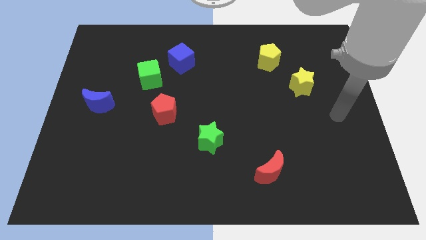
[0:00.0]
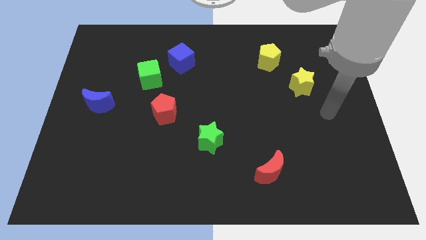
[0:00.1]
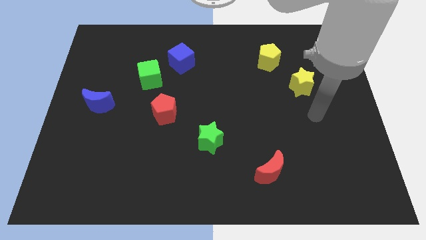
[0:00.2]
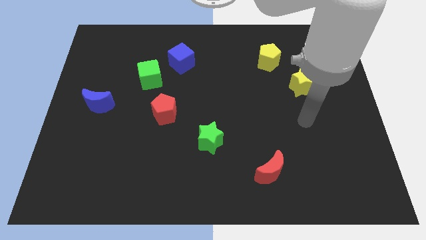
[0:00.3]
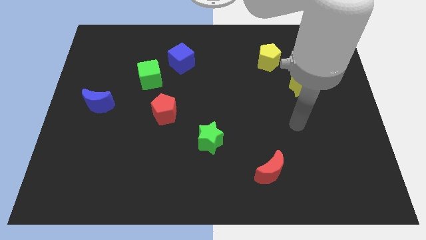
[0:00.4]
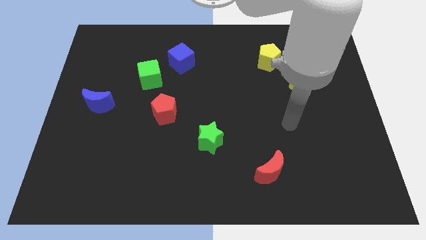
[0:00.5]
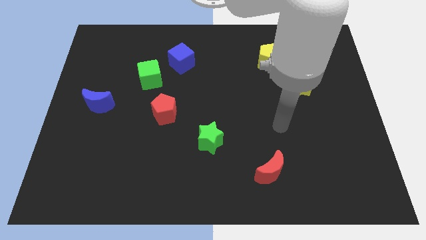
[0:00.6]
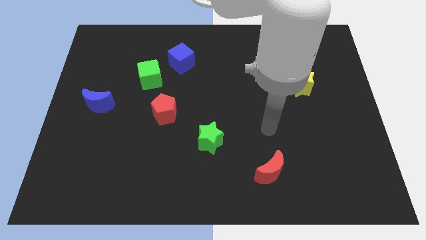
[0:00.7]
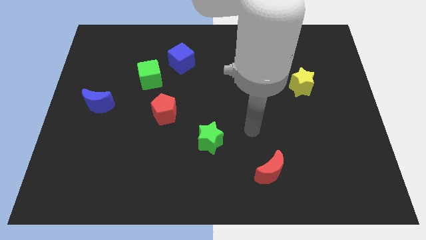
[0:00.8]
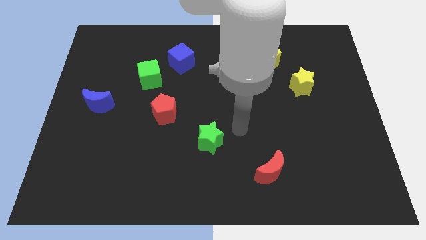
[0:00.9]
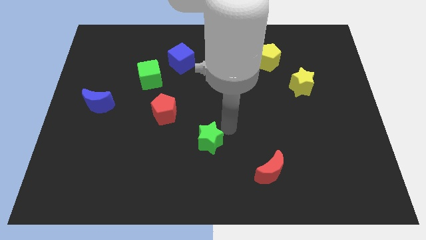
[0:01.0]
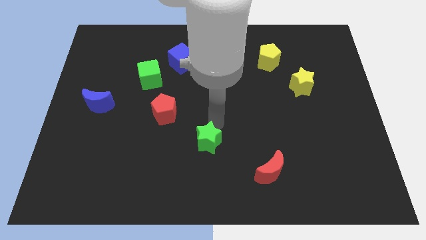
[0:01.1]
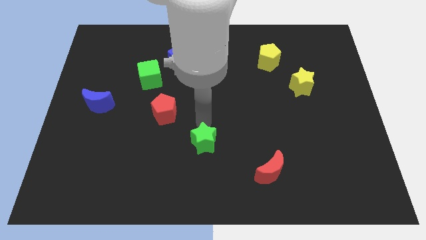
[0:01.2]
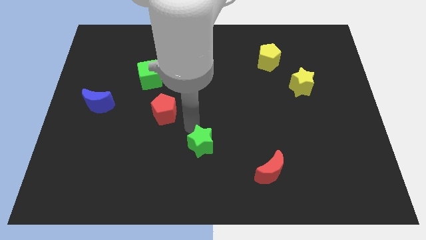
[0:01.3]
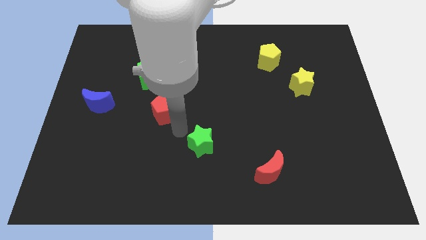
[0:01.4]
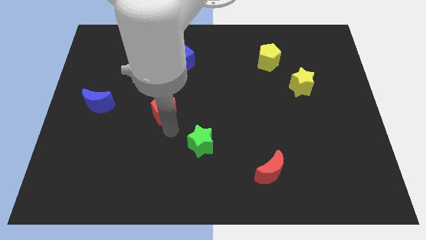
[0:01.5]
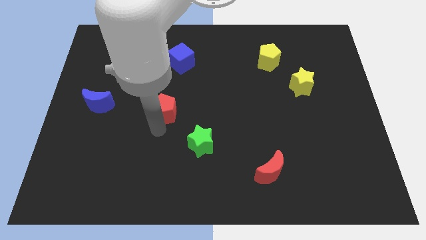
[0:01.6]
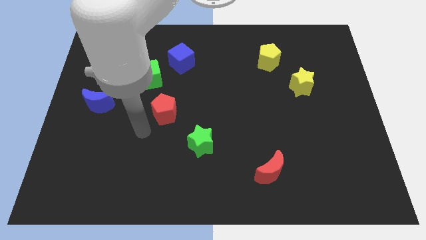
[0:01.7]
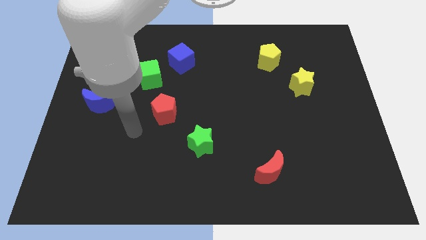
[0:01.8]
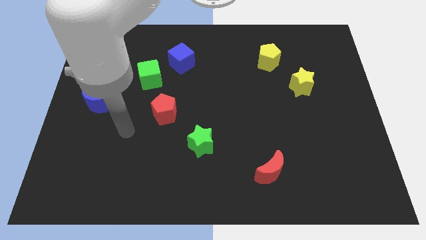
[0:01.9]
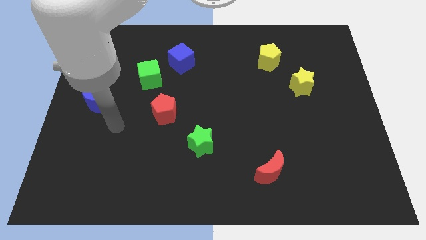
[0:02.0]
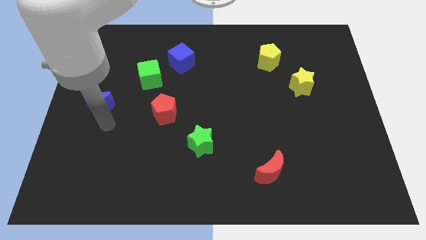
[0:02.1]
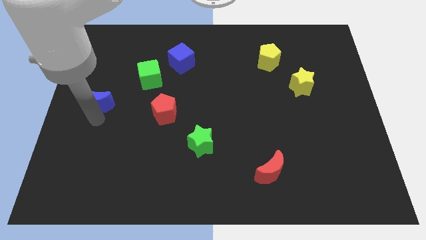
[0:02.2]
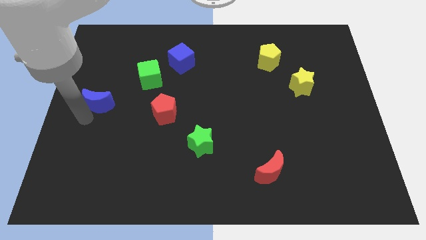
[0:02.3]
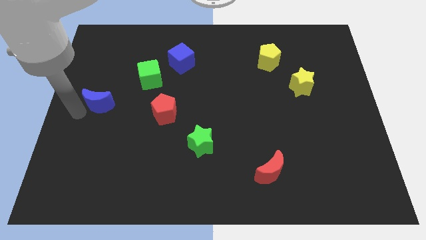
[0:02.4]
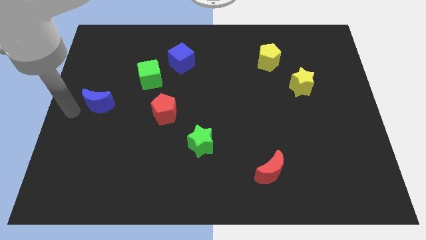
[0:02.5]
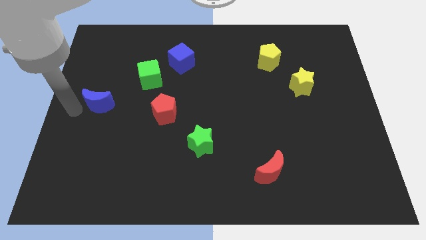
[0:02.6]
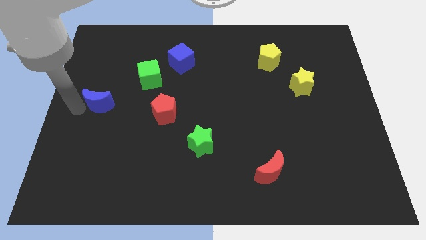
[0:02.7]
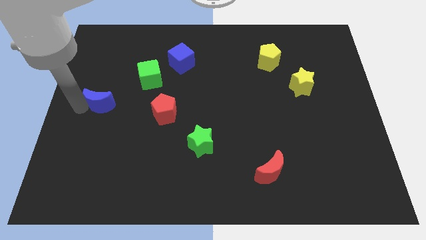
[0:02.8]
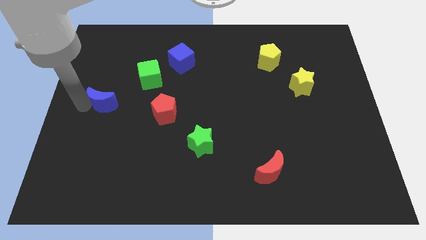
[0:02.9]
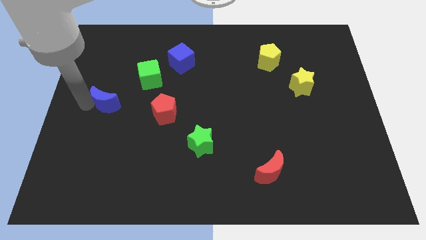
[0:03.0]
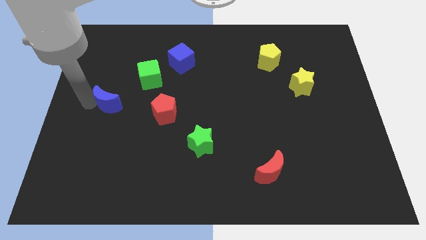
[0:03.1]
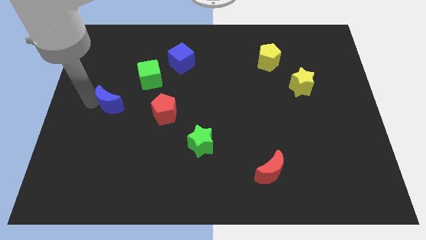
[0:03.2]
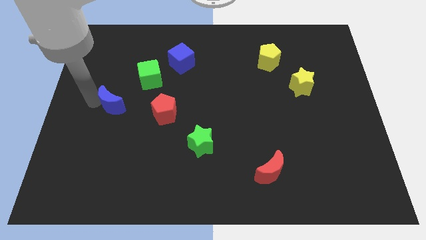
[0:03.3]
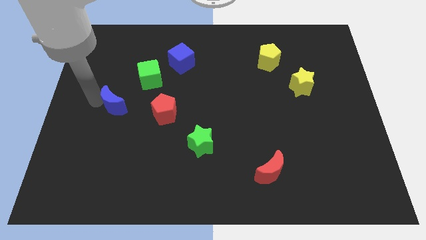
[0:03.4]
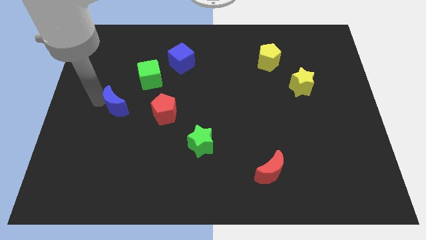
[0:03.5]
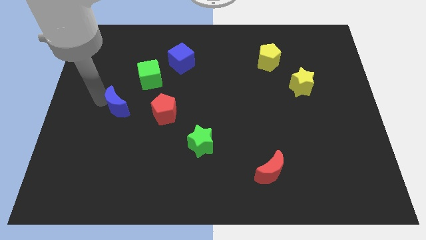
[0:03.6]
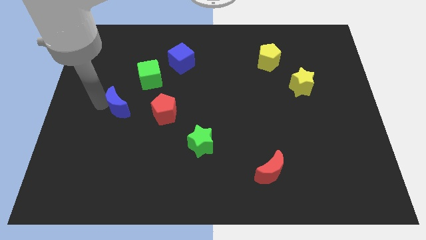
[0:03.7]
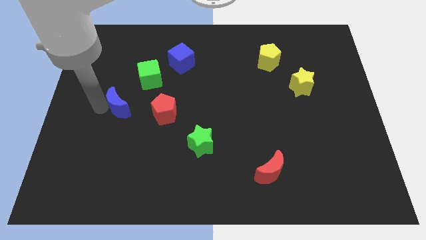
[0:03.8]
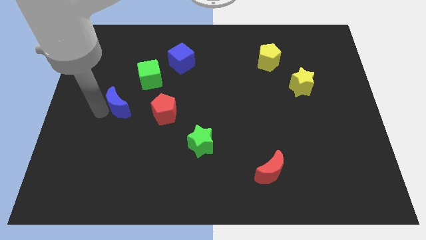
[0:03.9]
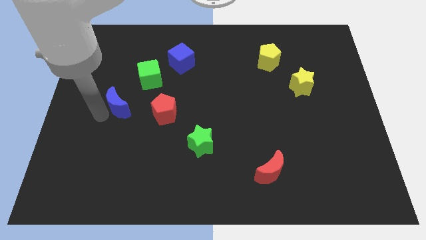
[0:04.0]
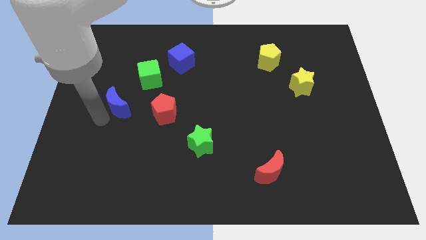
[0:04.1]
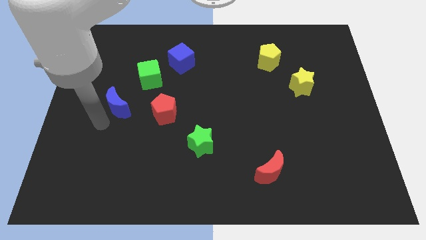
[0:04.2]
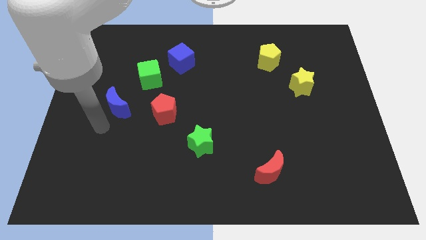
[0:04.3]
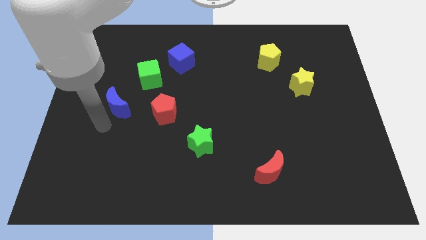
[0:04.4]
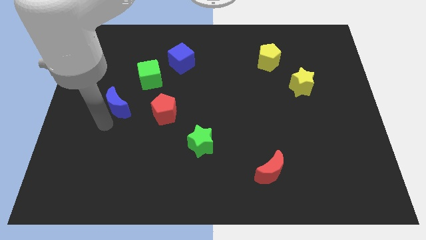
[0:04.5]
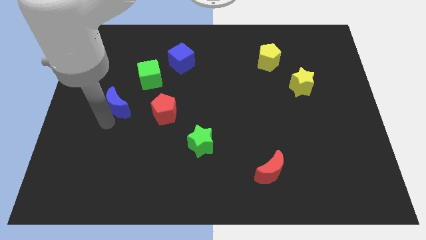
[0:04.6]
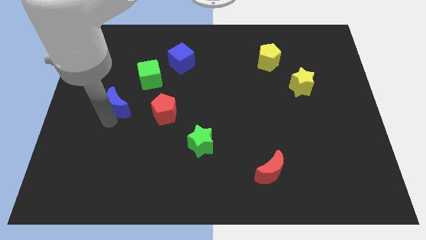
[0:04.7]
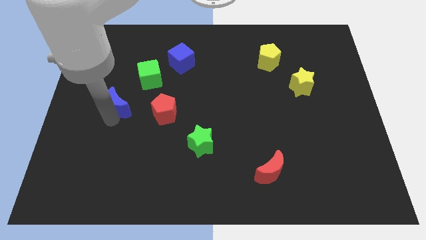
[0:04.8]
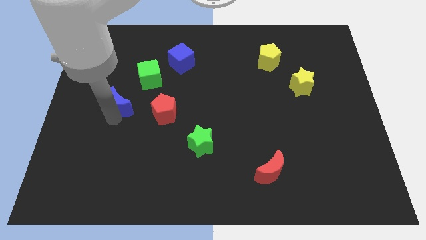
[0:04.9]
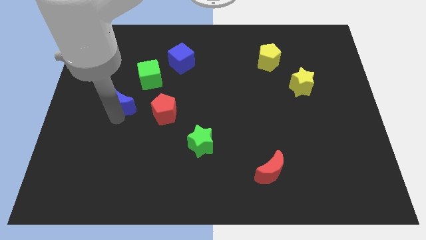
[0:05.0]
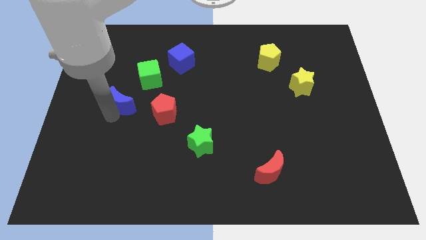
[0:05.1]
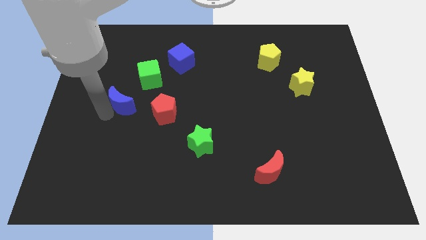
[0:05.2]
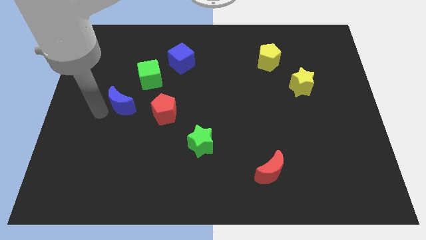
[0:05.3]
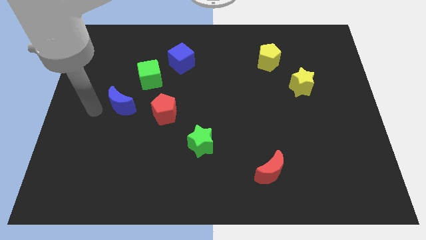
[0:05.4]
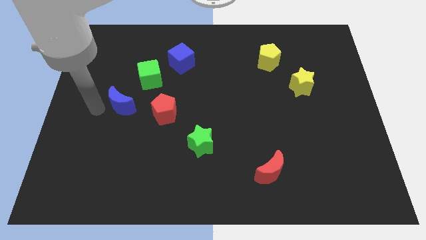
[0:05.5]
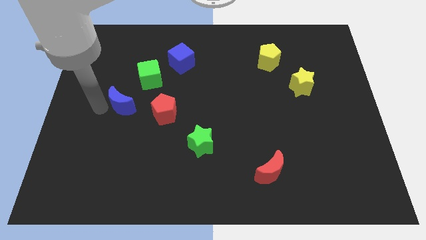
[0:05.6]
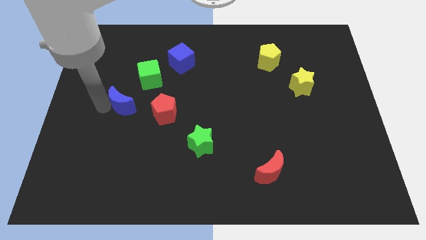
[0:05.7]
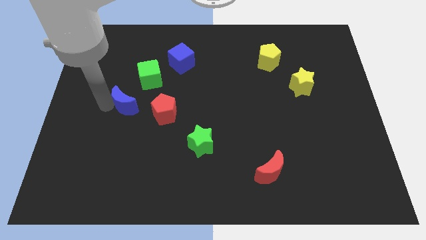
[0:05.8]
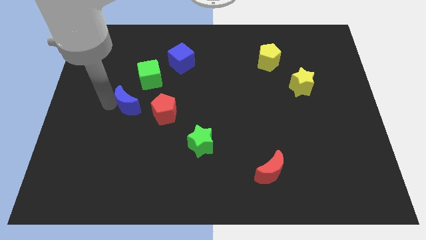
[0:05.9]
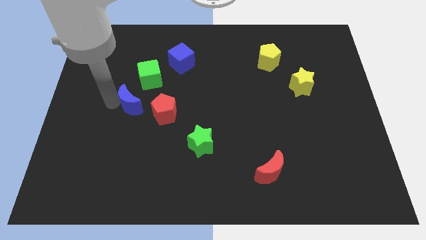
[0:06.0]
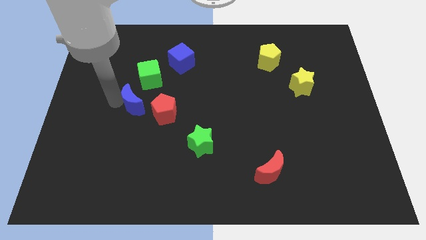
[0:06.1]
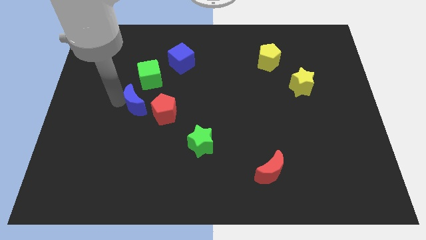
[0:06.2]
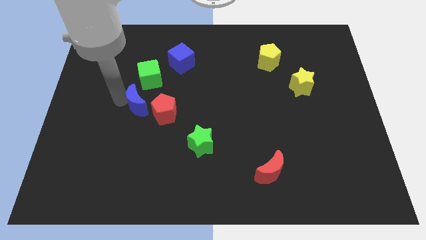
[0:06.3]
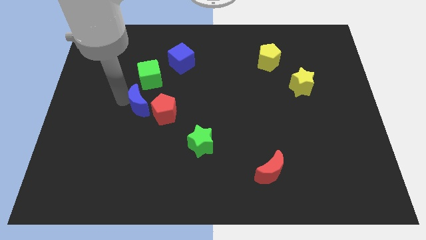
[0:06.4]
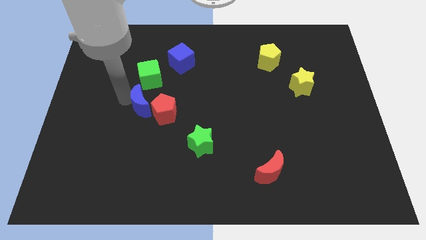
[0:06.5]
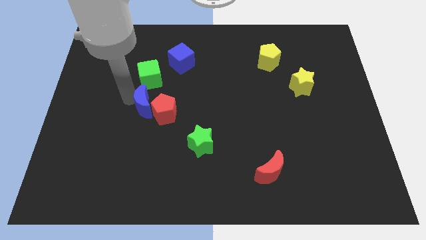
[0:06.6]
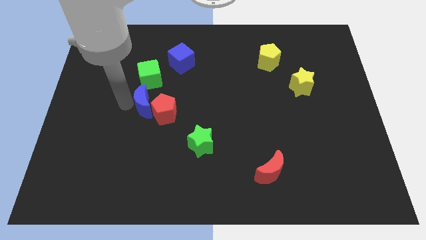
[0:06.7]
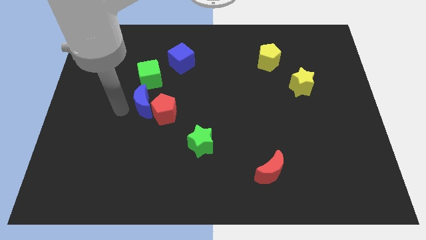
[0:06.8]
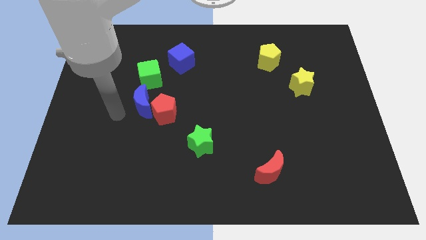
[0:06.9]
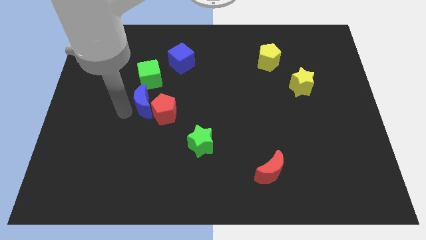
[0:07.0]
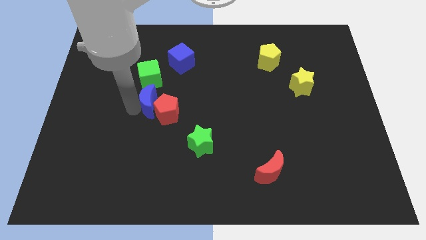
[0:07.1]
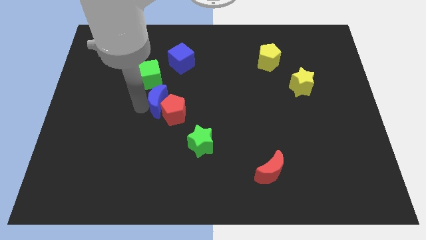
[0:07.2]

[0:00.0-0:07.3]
push the blue moon to the top of the red pentagon

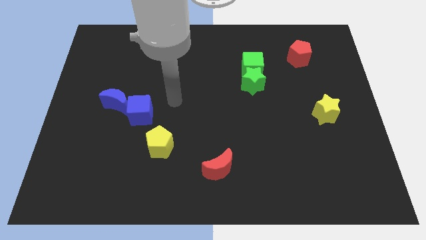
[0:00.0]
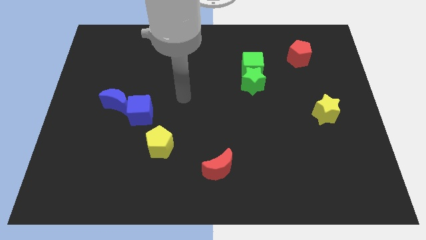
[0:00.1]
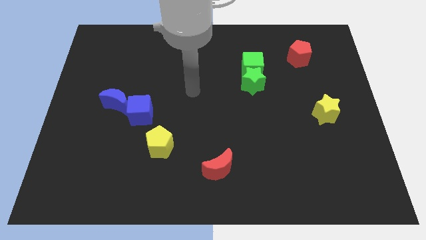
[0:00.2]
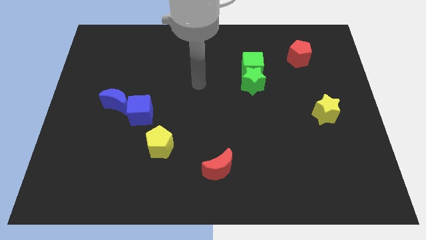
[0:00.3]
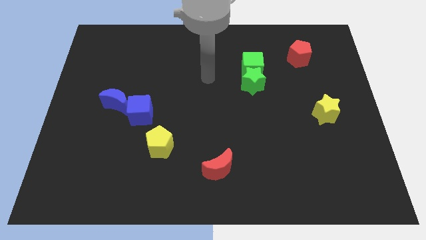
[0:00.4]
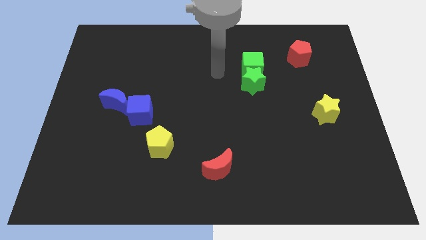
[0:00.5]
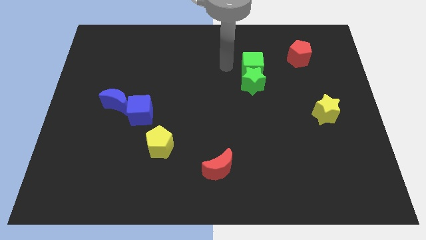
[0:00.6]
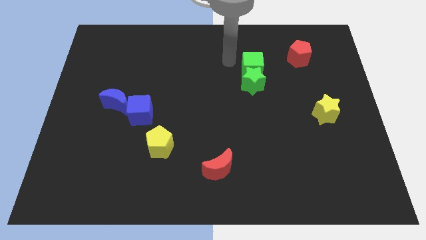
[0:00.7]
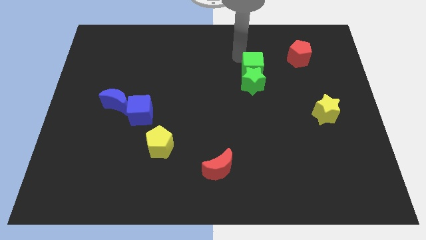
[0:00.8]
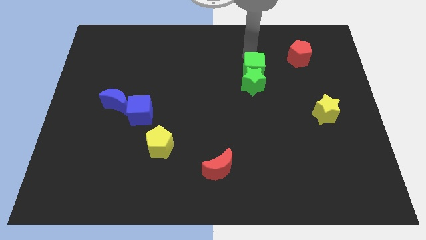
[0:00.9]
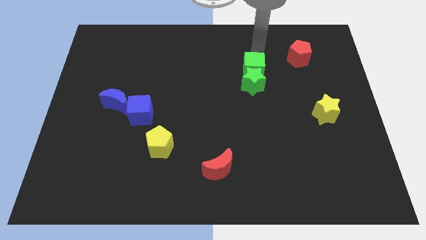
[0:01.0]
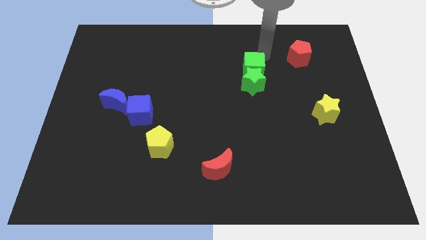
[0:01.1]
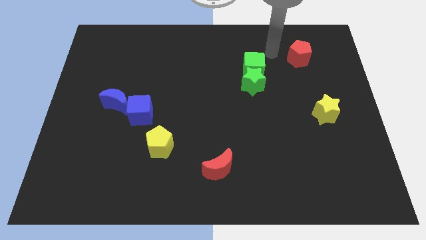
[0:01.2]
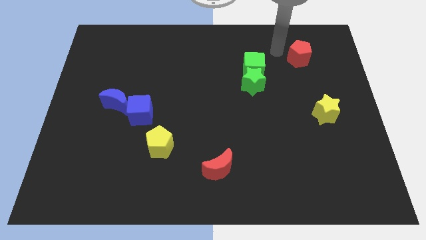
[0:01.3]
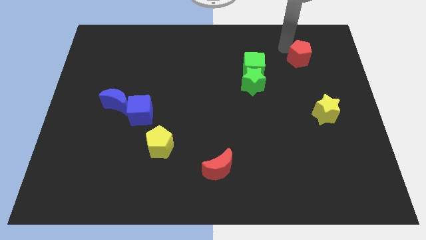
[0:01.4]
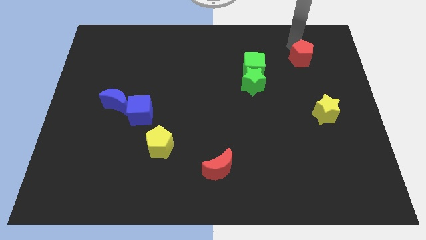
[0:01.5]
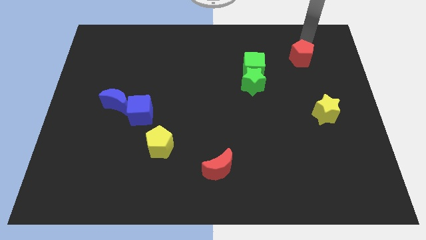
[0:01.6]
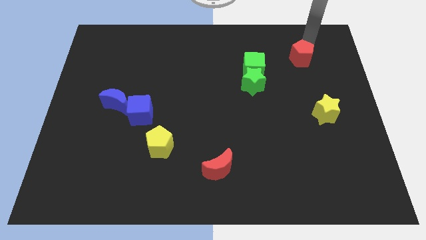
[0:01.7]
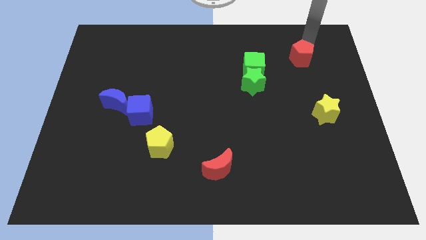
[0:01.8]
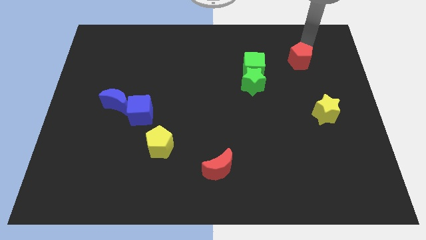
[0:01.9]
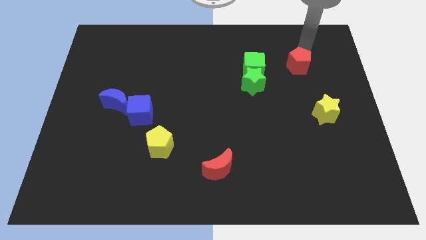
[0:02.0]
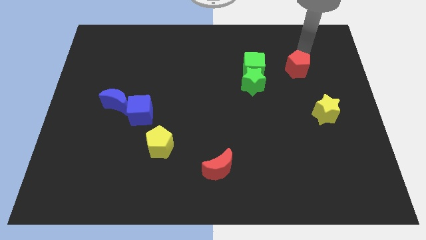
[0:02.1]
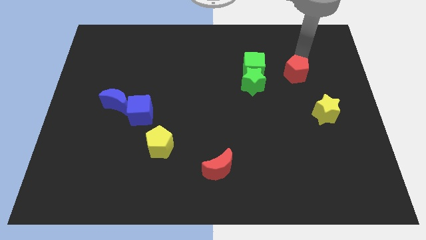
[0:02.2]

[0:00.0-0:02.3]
push the red pentagon right of the green star
